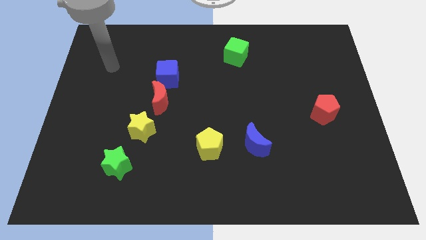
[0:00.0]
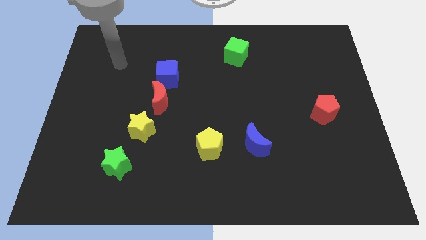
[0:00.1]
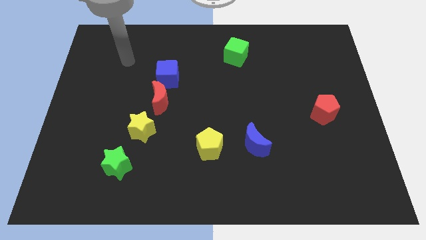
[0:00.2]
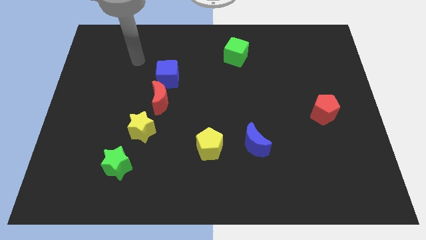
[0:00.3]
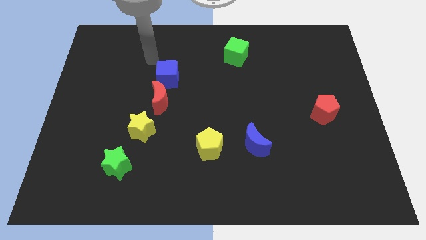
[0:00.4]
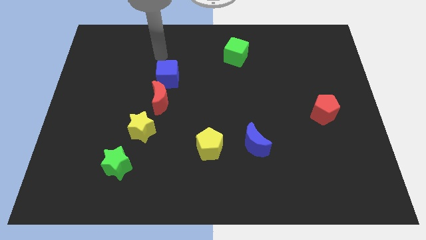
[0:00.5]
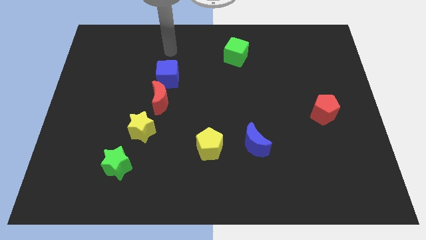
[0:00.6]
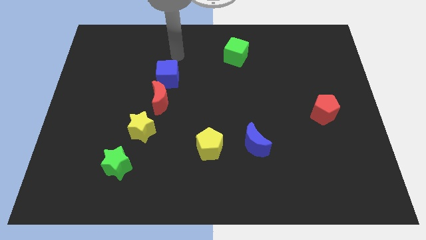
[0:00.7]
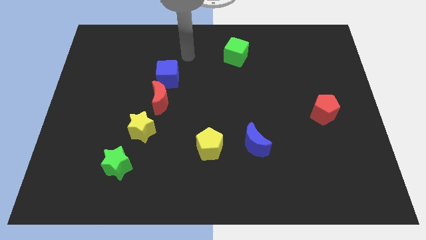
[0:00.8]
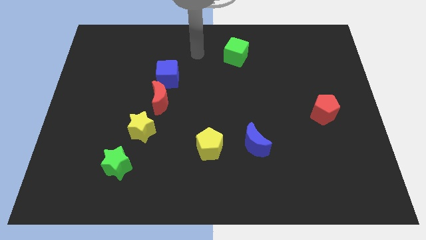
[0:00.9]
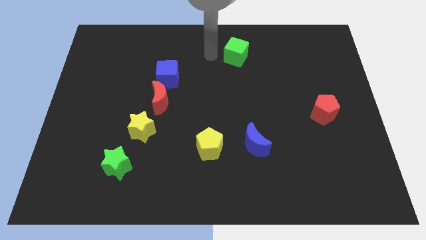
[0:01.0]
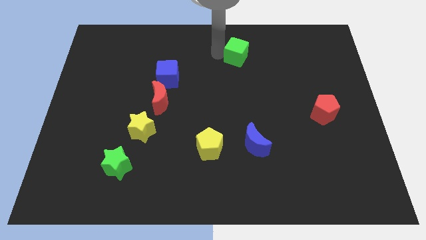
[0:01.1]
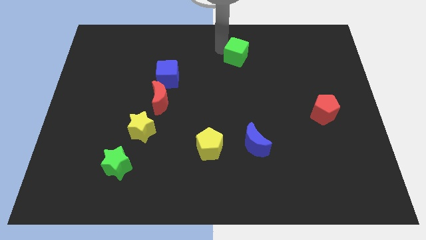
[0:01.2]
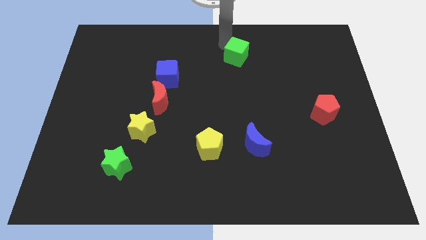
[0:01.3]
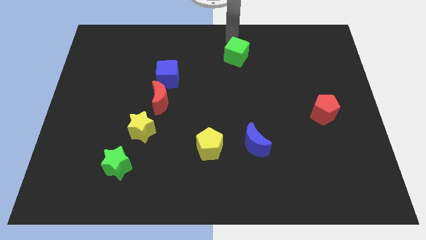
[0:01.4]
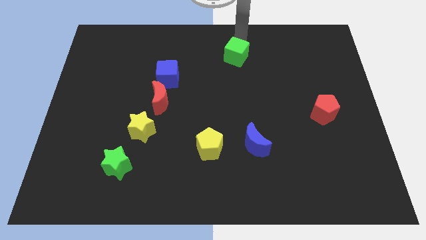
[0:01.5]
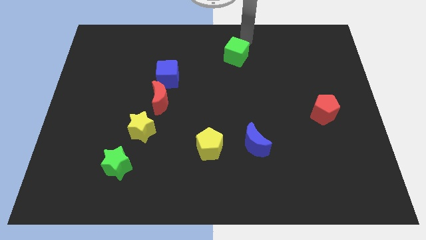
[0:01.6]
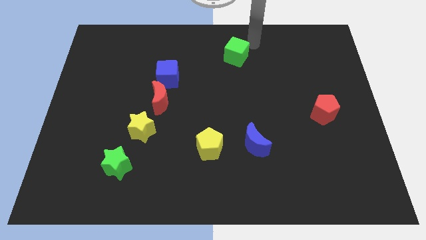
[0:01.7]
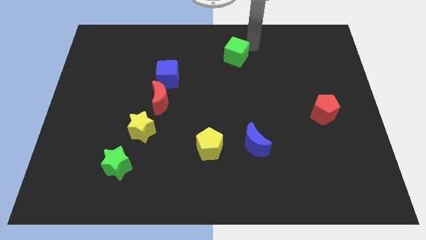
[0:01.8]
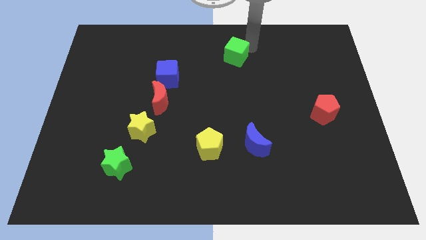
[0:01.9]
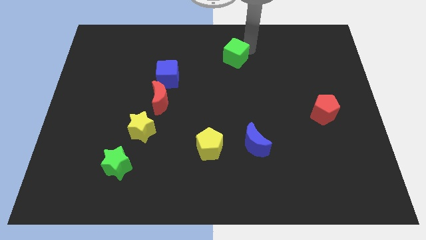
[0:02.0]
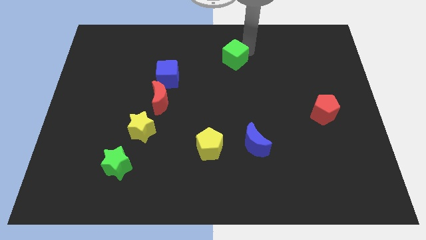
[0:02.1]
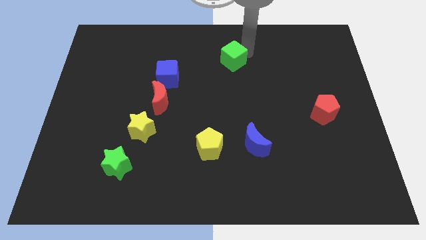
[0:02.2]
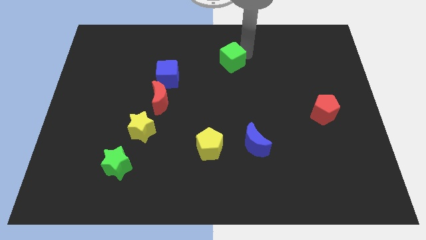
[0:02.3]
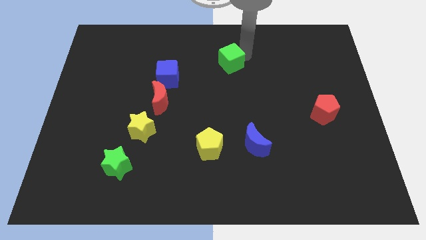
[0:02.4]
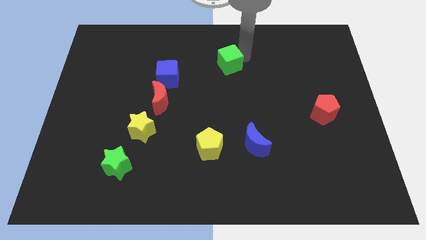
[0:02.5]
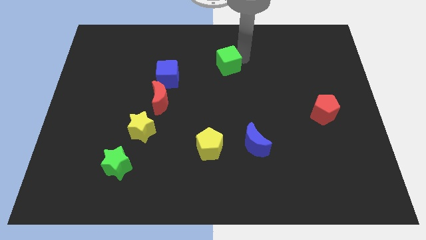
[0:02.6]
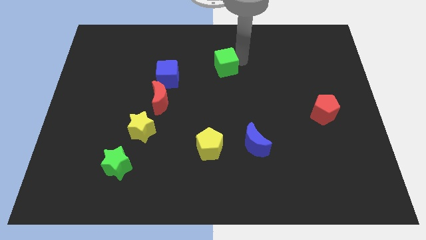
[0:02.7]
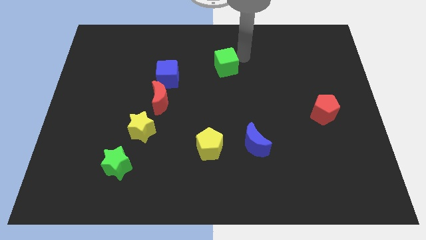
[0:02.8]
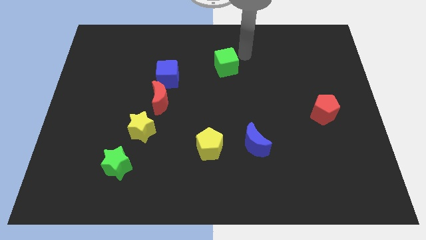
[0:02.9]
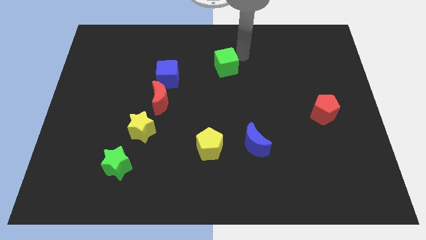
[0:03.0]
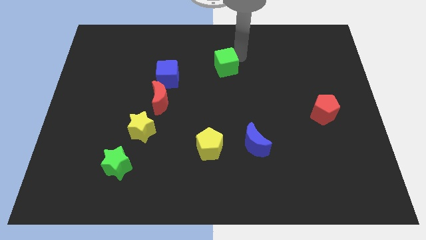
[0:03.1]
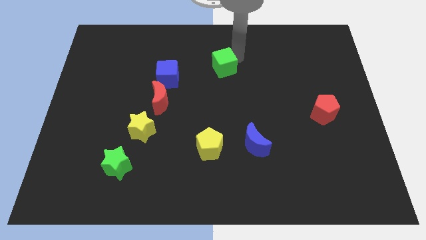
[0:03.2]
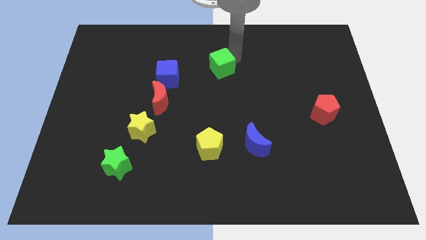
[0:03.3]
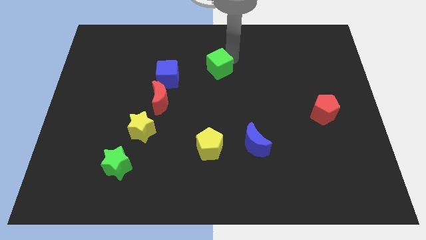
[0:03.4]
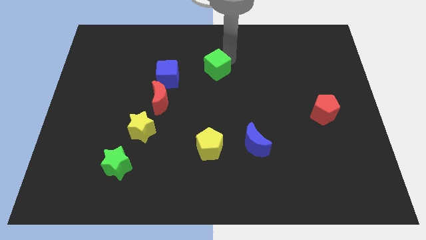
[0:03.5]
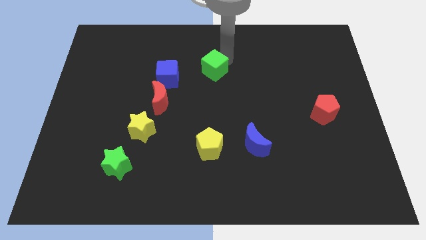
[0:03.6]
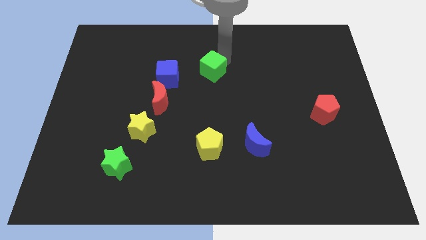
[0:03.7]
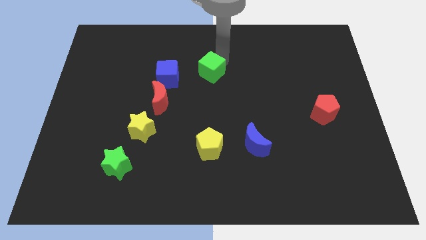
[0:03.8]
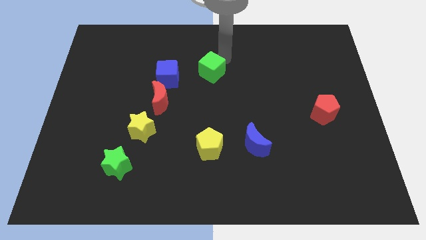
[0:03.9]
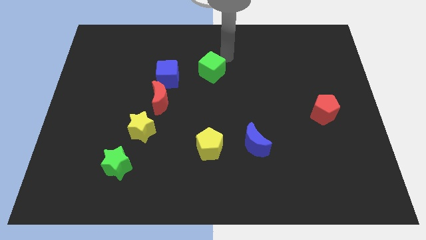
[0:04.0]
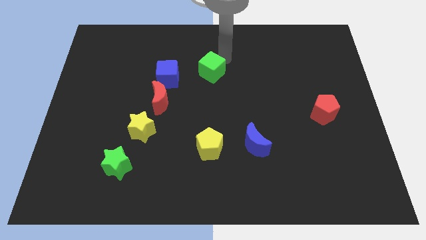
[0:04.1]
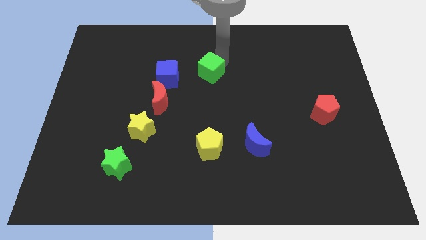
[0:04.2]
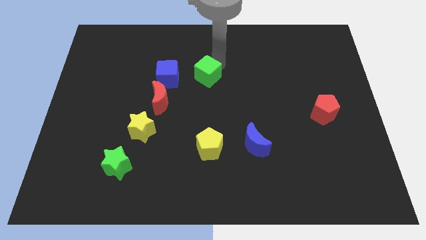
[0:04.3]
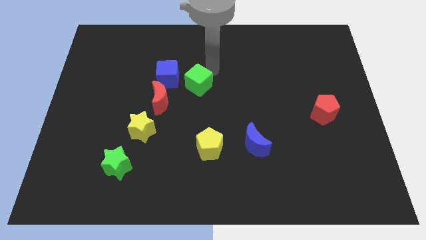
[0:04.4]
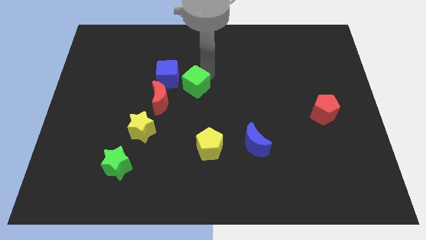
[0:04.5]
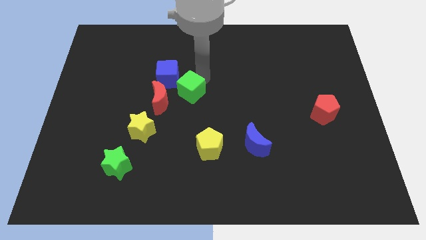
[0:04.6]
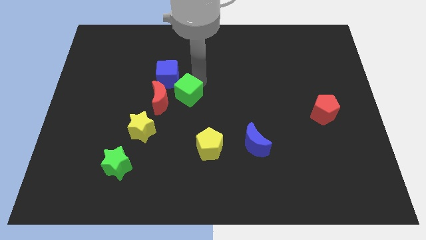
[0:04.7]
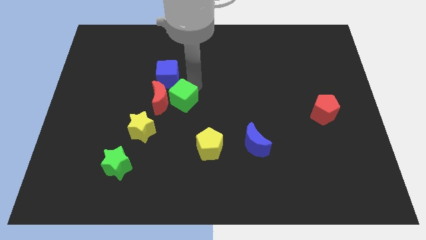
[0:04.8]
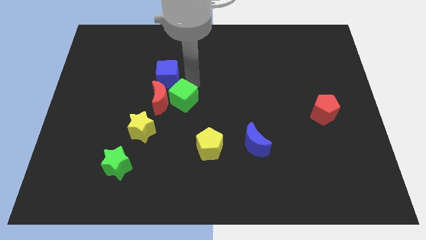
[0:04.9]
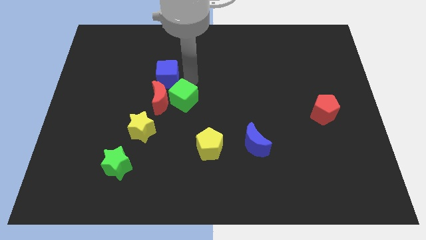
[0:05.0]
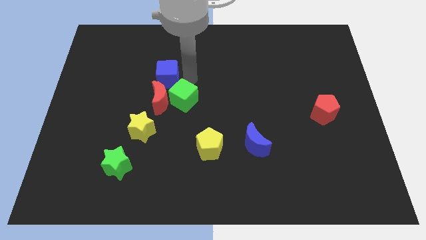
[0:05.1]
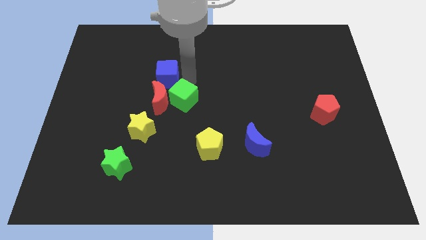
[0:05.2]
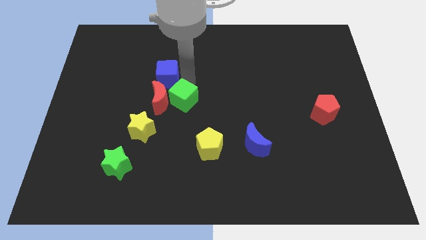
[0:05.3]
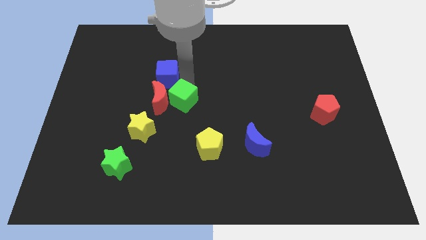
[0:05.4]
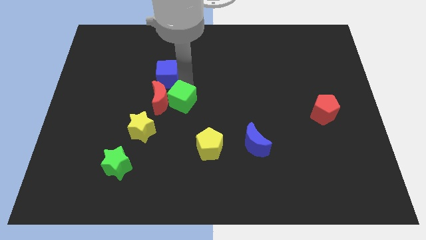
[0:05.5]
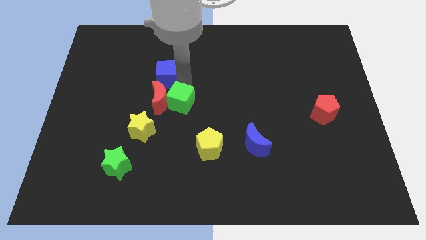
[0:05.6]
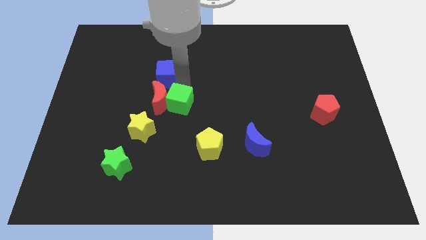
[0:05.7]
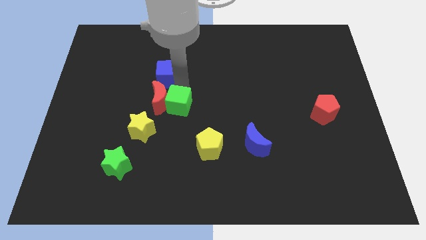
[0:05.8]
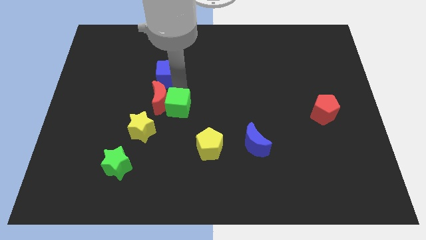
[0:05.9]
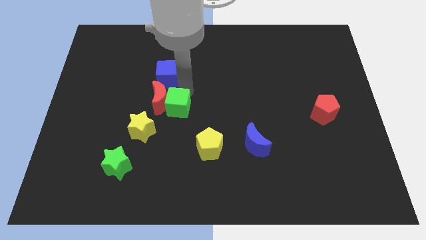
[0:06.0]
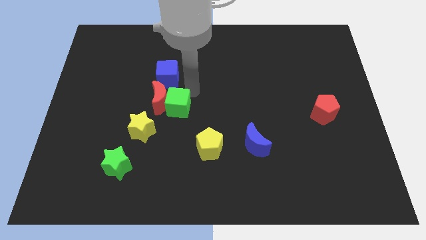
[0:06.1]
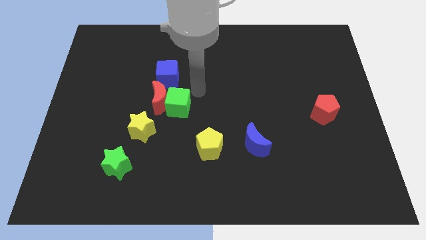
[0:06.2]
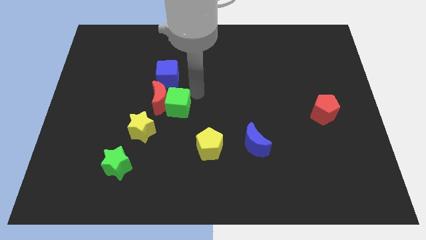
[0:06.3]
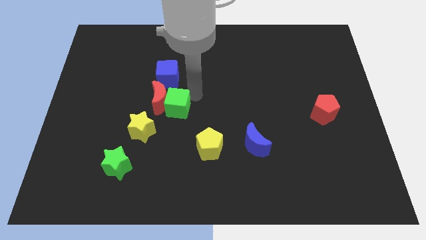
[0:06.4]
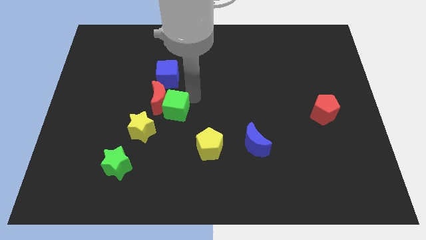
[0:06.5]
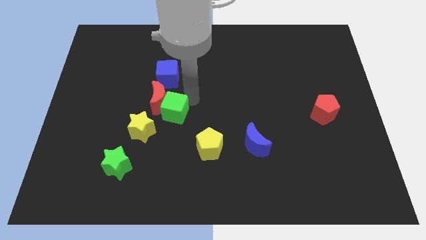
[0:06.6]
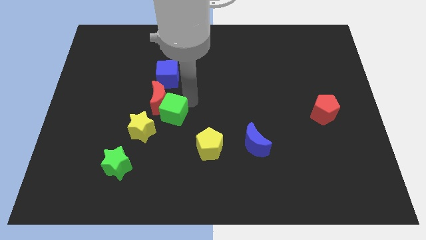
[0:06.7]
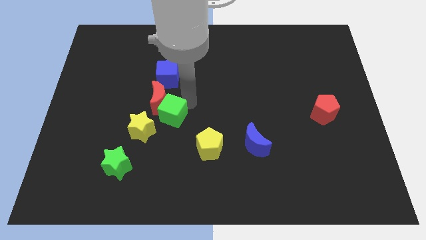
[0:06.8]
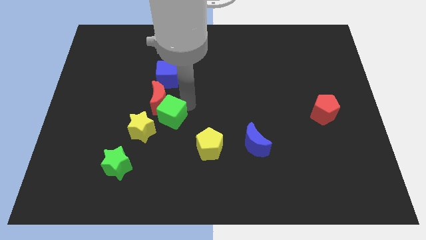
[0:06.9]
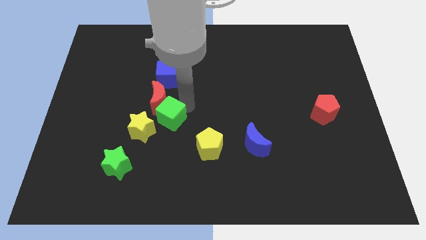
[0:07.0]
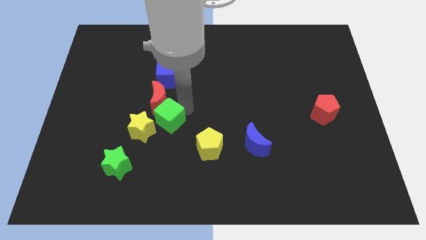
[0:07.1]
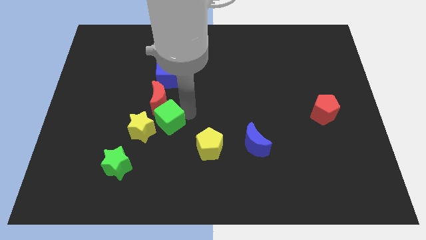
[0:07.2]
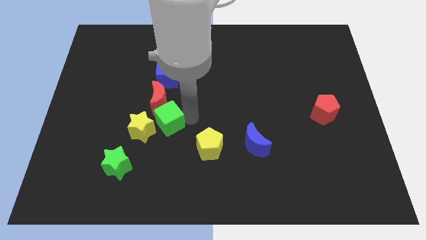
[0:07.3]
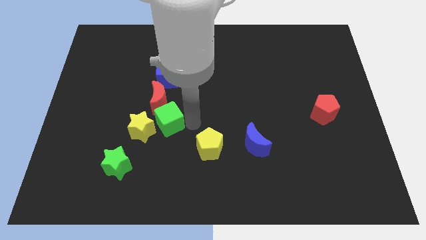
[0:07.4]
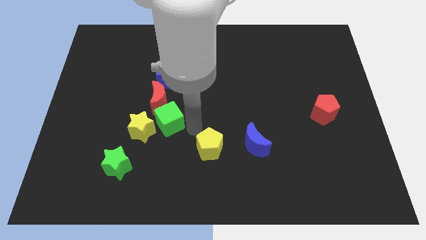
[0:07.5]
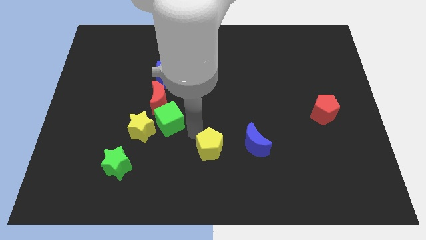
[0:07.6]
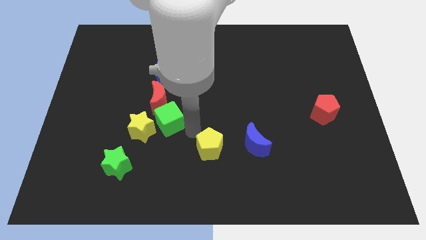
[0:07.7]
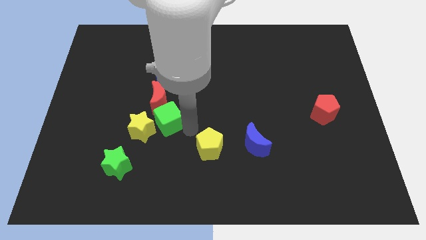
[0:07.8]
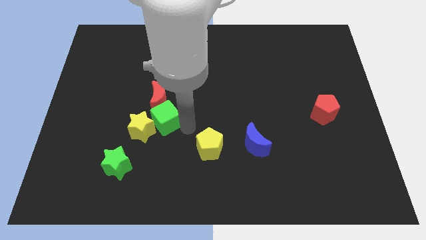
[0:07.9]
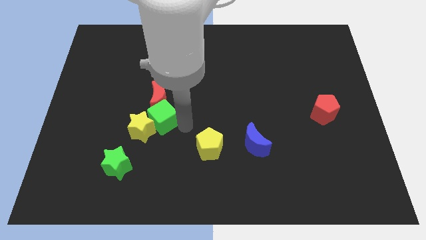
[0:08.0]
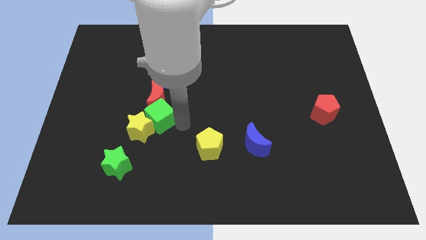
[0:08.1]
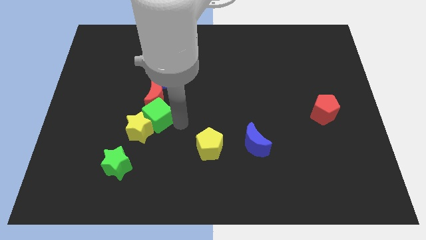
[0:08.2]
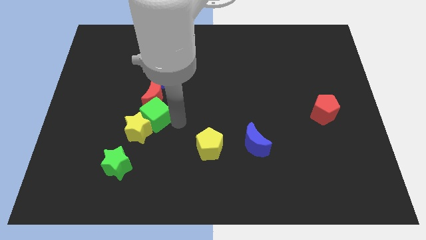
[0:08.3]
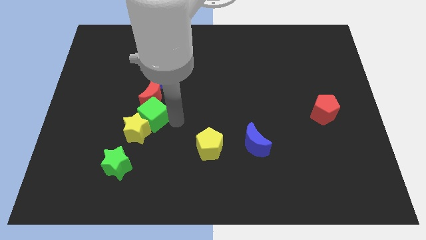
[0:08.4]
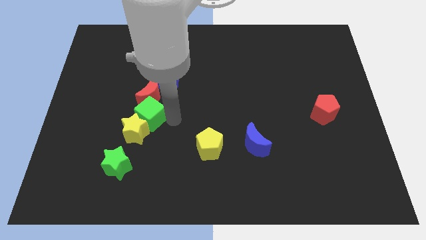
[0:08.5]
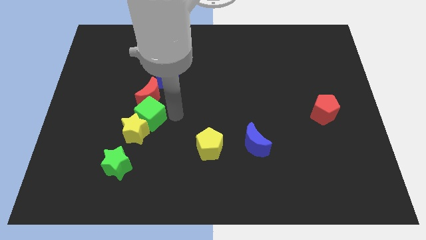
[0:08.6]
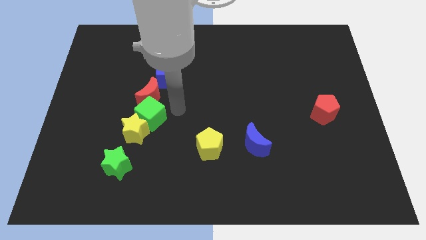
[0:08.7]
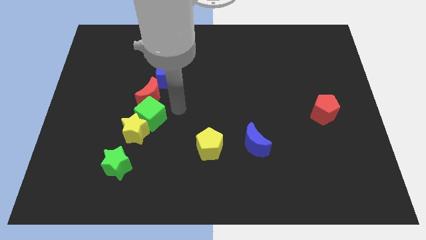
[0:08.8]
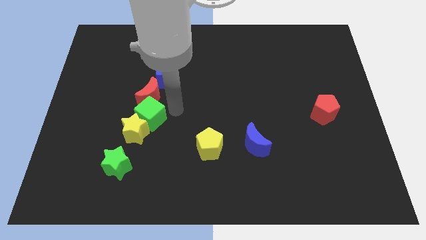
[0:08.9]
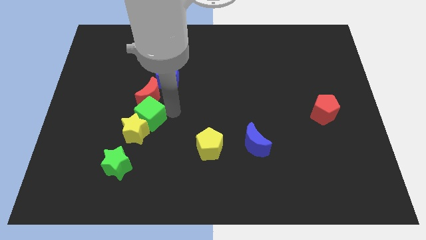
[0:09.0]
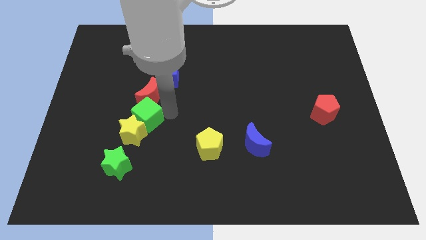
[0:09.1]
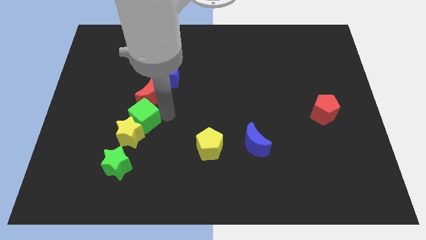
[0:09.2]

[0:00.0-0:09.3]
move the green cube to the top of the green star
